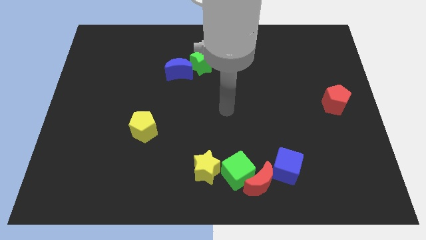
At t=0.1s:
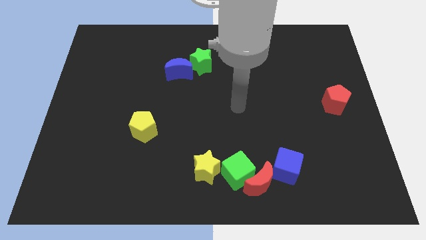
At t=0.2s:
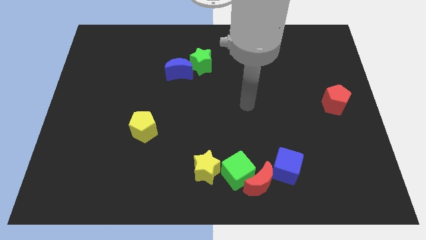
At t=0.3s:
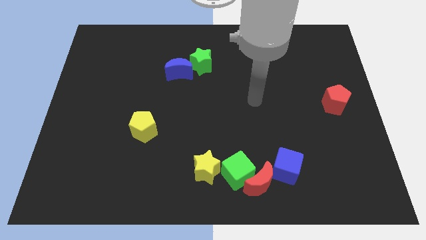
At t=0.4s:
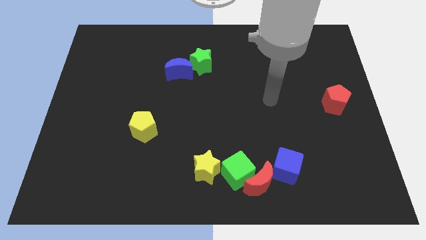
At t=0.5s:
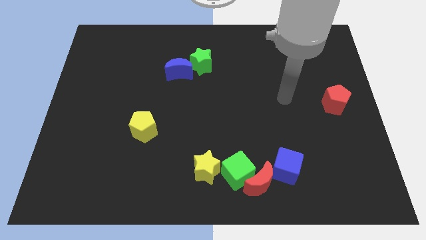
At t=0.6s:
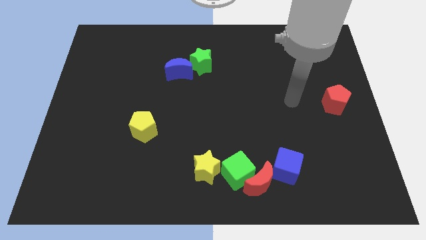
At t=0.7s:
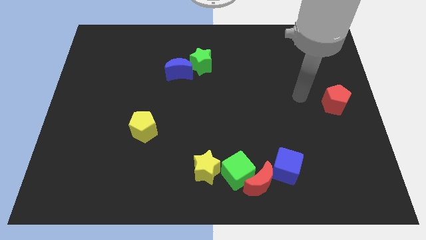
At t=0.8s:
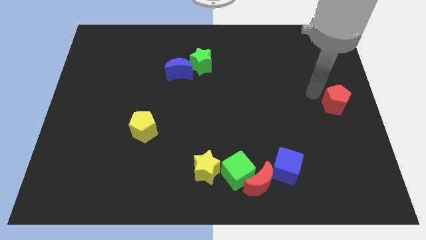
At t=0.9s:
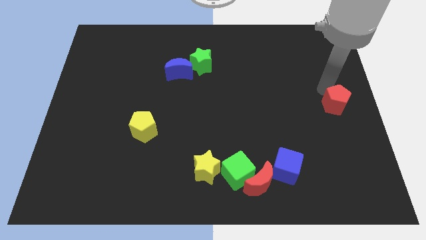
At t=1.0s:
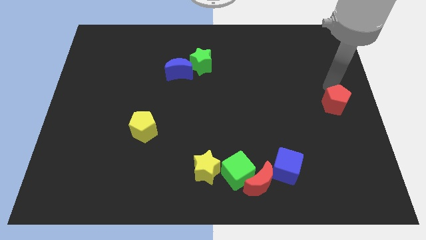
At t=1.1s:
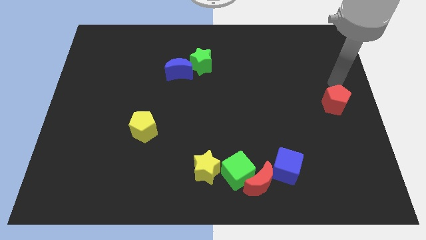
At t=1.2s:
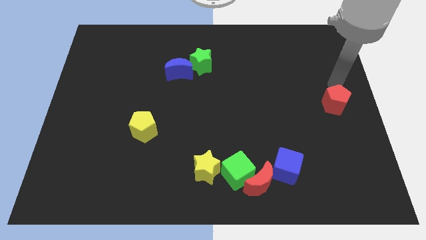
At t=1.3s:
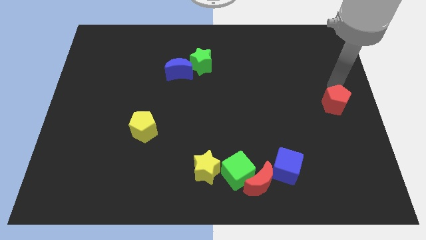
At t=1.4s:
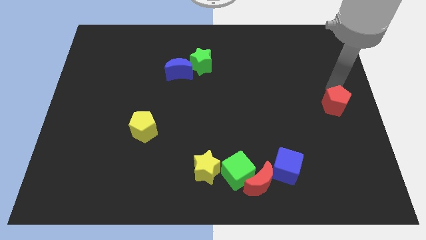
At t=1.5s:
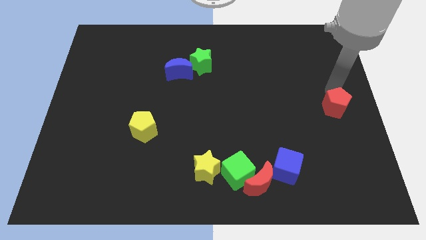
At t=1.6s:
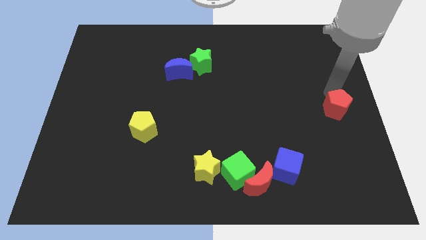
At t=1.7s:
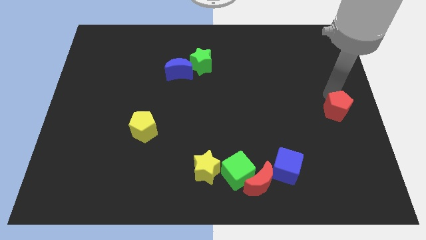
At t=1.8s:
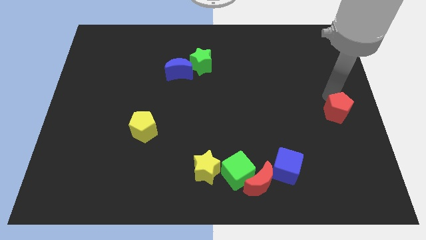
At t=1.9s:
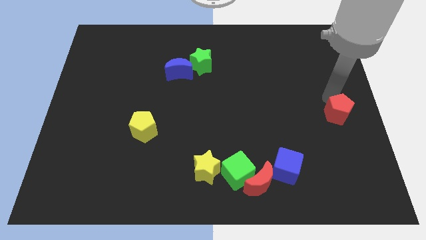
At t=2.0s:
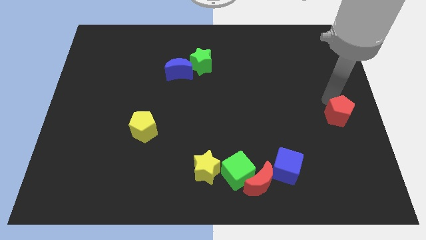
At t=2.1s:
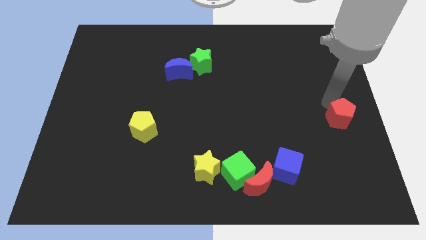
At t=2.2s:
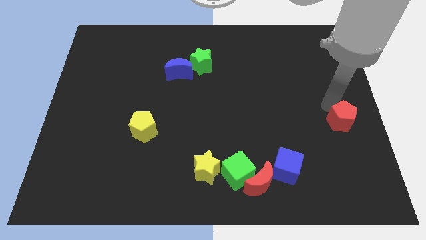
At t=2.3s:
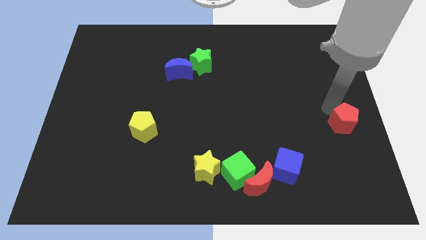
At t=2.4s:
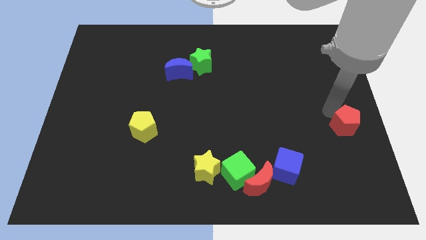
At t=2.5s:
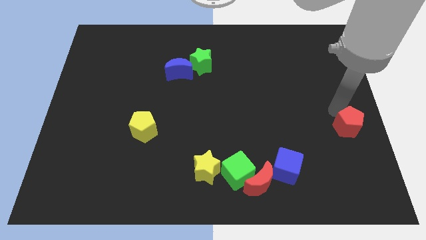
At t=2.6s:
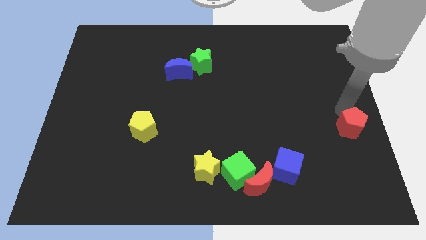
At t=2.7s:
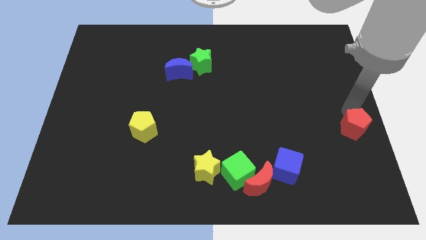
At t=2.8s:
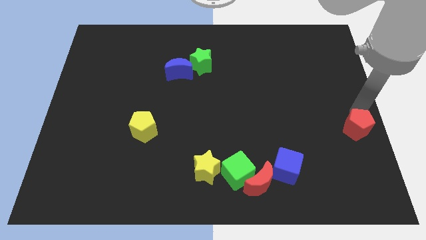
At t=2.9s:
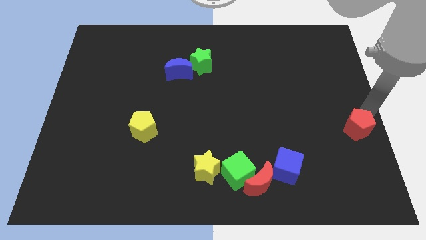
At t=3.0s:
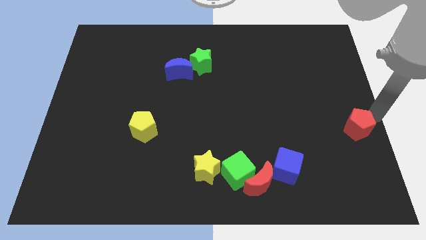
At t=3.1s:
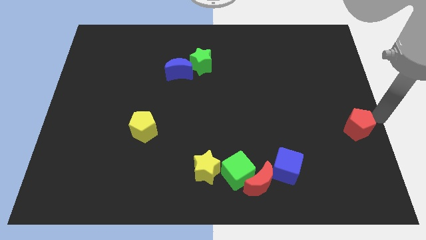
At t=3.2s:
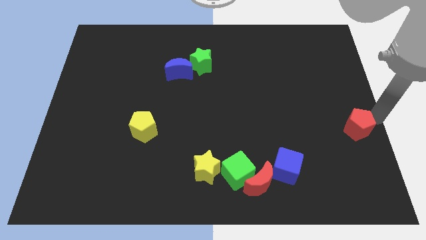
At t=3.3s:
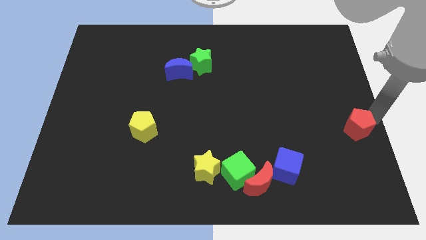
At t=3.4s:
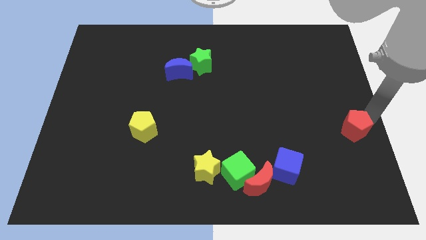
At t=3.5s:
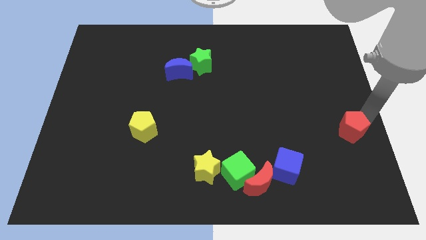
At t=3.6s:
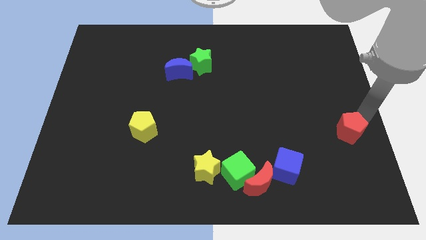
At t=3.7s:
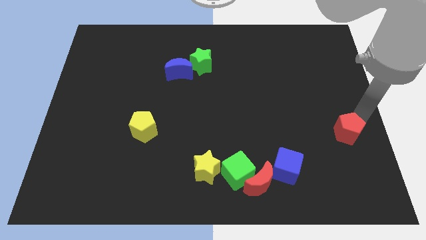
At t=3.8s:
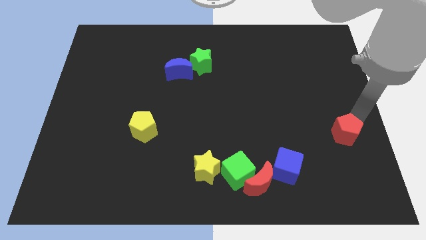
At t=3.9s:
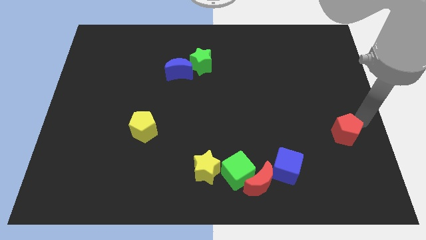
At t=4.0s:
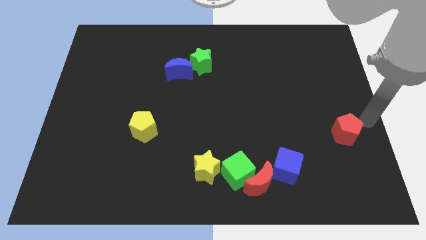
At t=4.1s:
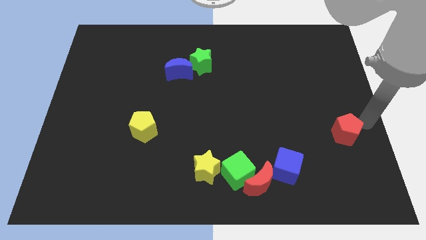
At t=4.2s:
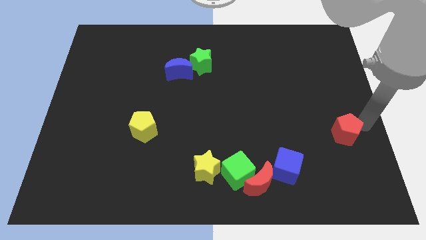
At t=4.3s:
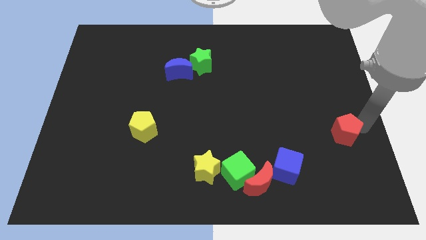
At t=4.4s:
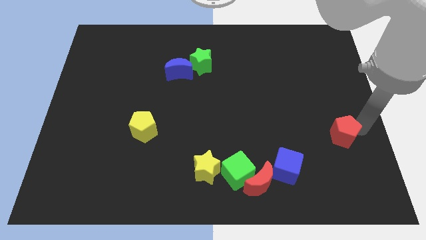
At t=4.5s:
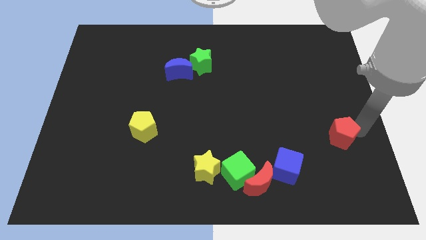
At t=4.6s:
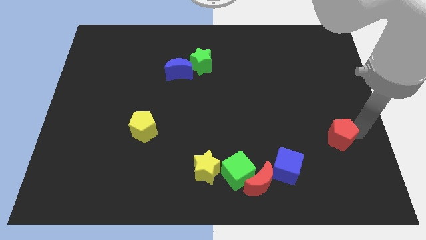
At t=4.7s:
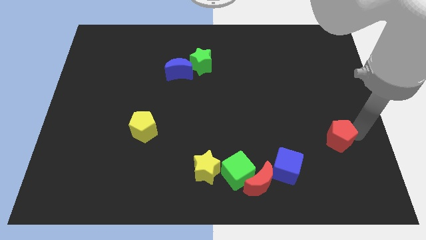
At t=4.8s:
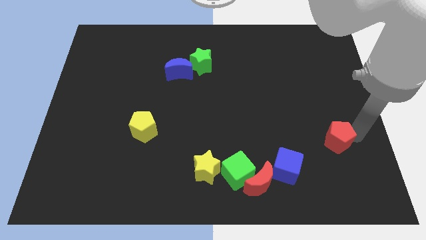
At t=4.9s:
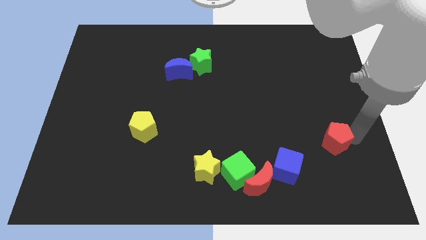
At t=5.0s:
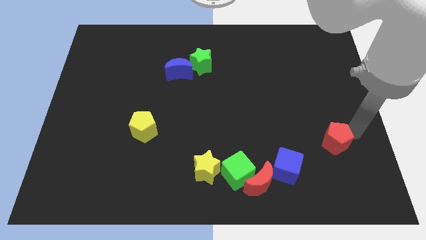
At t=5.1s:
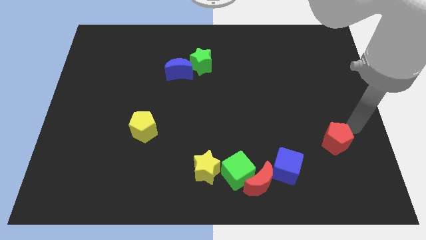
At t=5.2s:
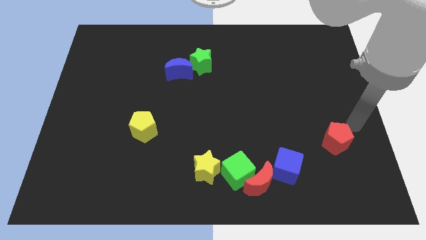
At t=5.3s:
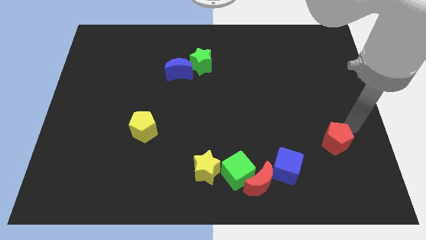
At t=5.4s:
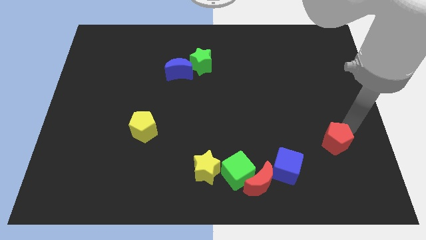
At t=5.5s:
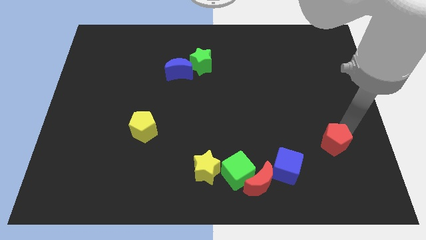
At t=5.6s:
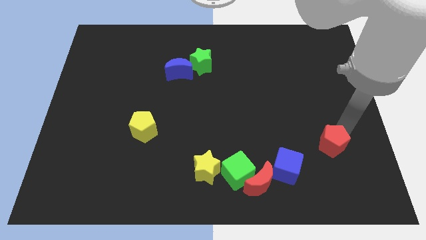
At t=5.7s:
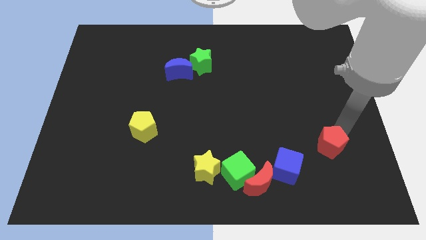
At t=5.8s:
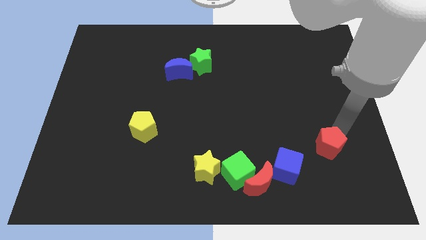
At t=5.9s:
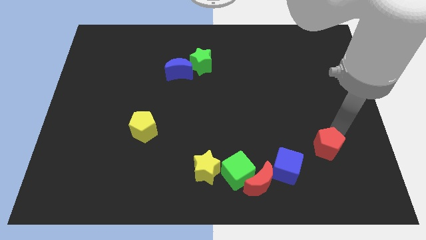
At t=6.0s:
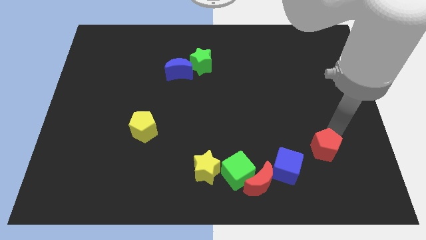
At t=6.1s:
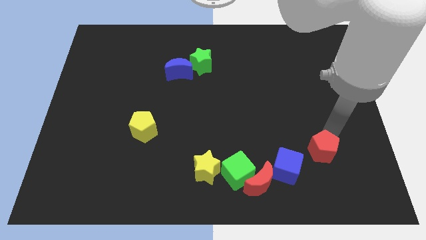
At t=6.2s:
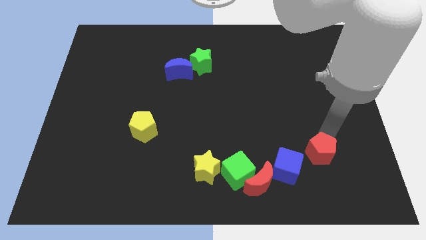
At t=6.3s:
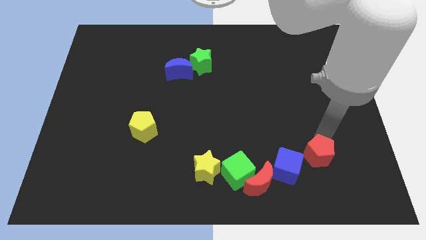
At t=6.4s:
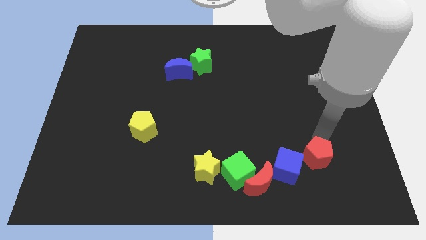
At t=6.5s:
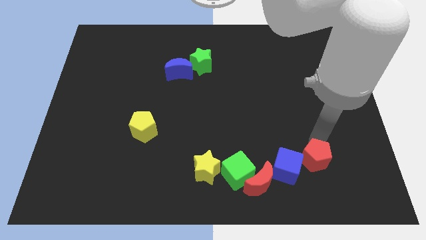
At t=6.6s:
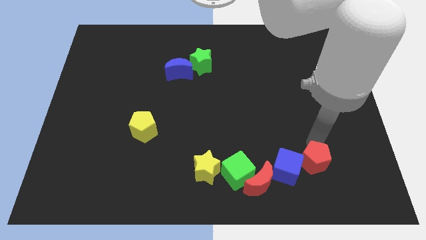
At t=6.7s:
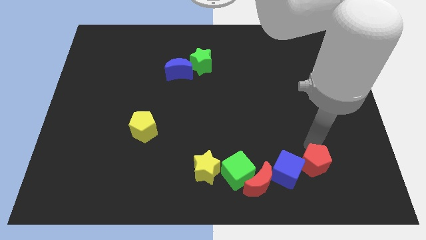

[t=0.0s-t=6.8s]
slide the red pentagon to the right of the red moon

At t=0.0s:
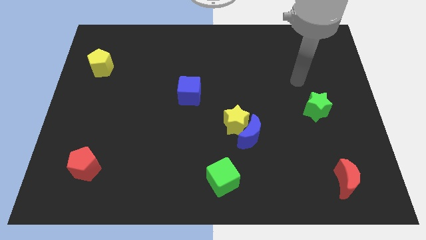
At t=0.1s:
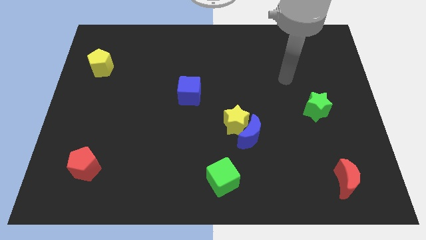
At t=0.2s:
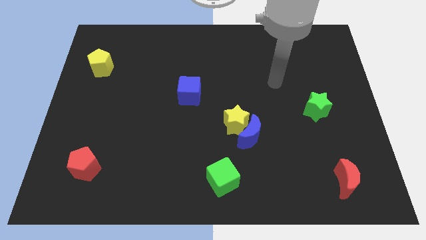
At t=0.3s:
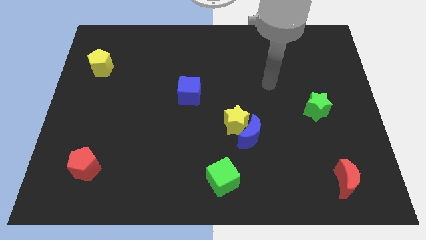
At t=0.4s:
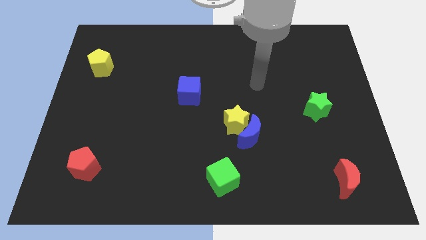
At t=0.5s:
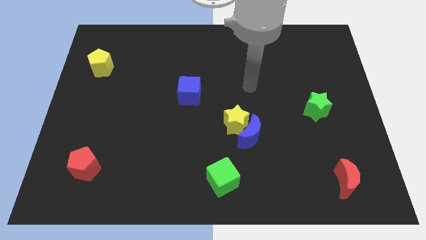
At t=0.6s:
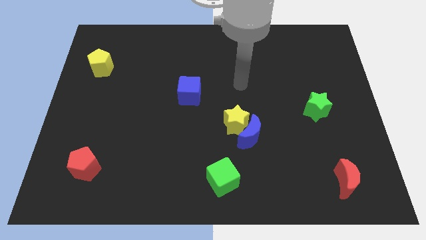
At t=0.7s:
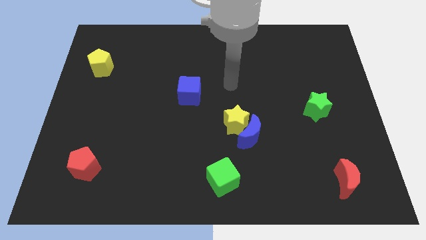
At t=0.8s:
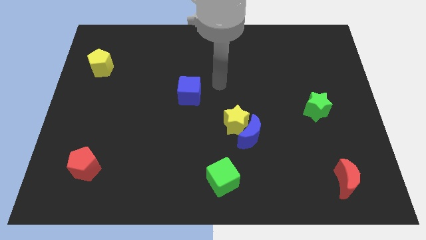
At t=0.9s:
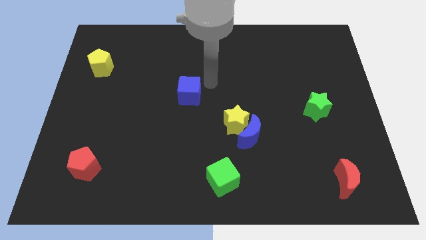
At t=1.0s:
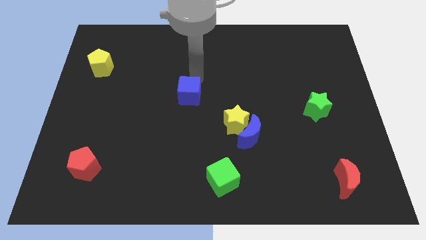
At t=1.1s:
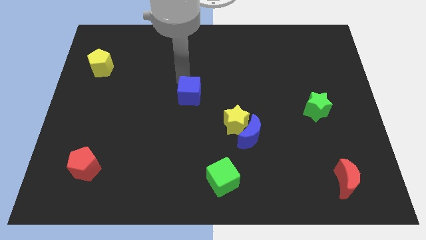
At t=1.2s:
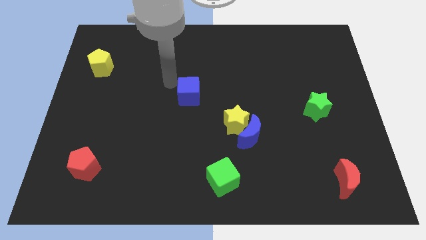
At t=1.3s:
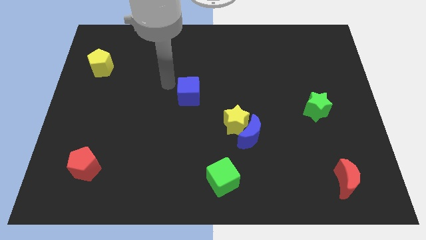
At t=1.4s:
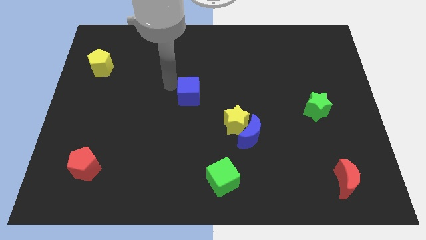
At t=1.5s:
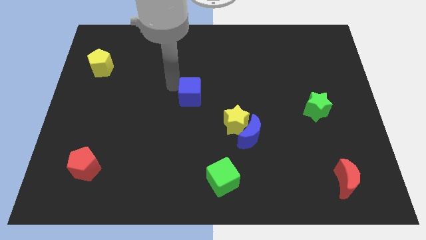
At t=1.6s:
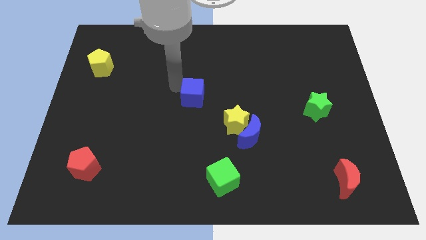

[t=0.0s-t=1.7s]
slide the blue cube to the top left of the yellow star
